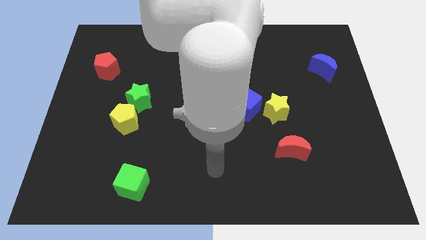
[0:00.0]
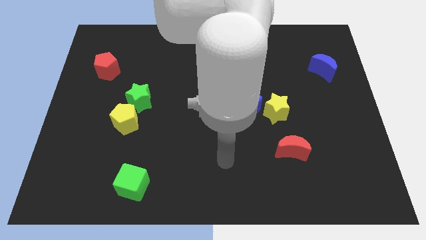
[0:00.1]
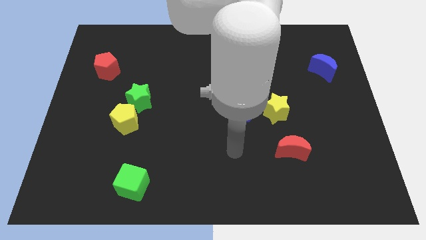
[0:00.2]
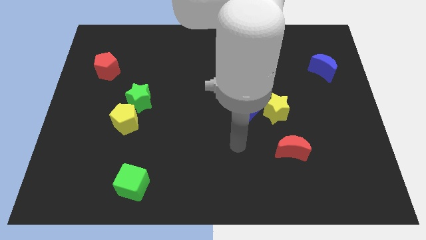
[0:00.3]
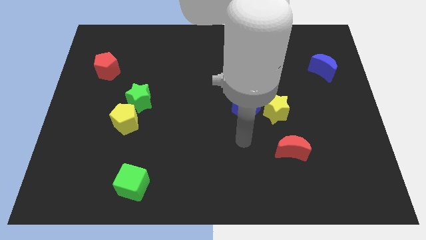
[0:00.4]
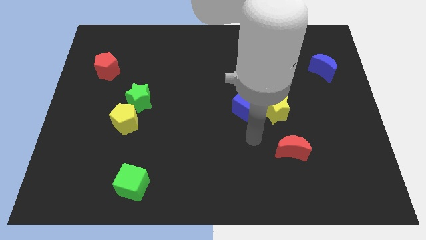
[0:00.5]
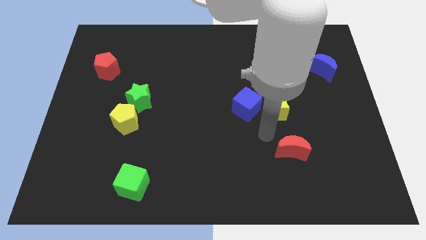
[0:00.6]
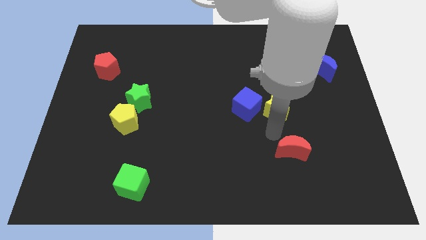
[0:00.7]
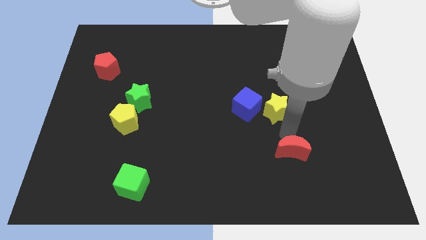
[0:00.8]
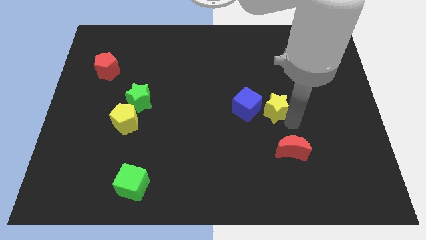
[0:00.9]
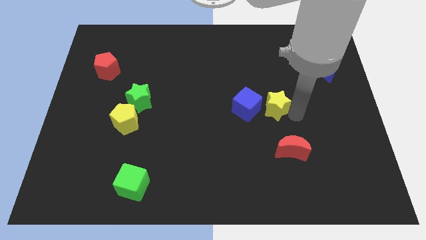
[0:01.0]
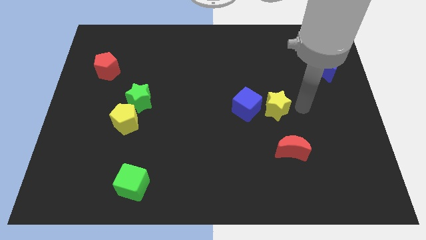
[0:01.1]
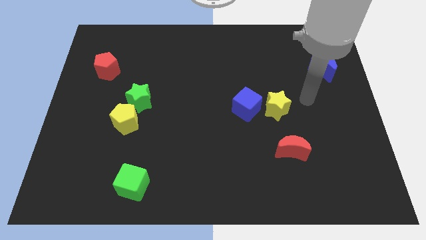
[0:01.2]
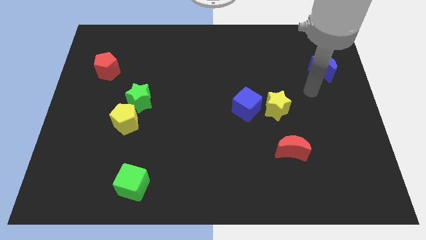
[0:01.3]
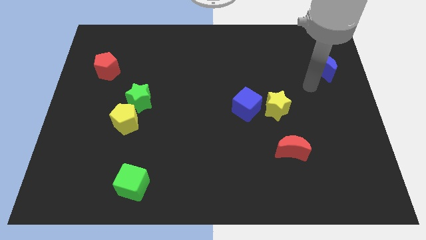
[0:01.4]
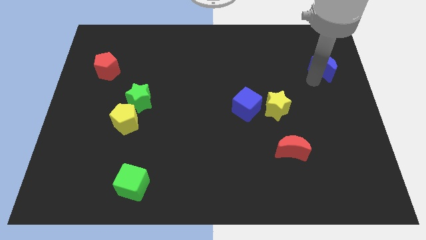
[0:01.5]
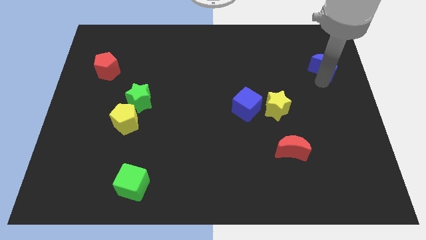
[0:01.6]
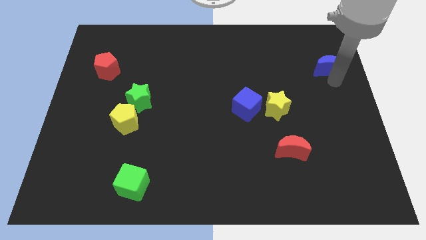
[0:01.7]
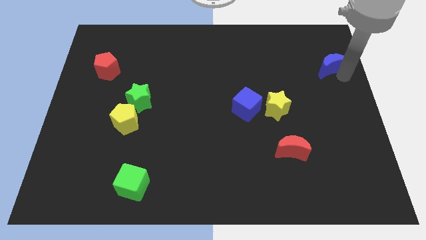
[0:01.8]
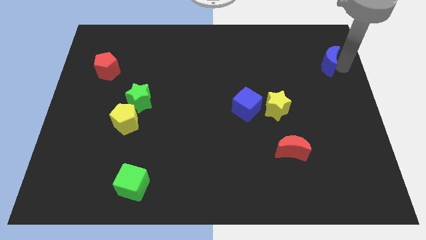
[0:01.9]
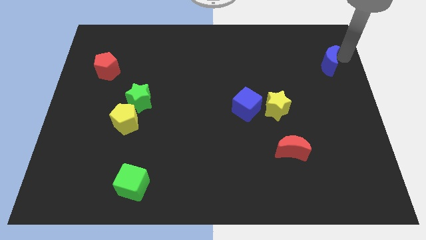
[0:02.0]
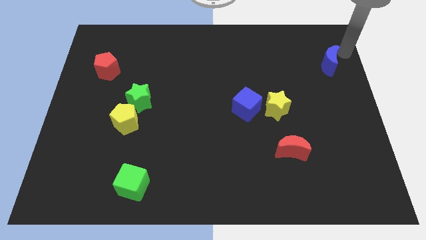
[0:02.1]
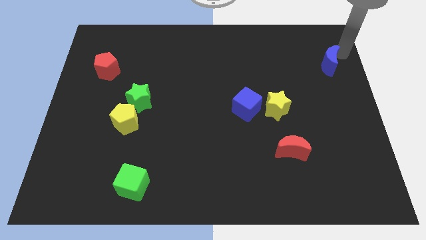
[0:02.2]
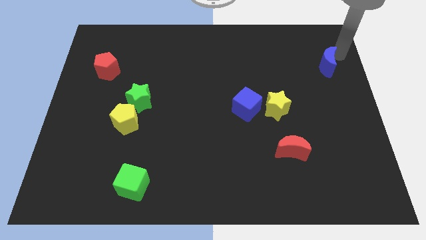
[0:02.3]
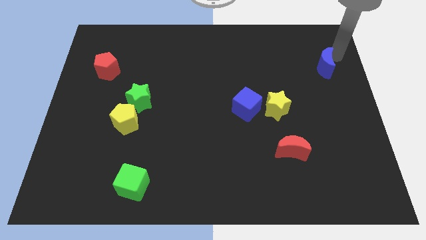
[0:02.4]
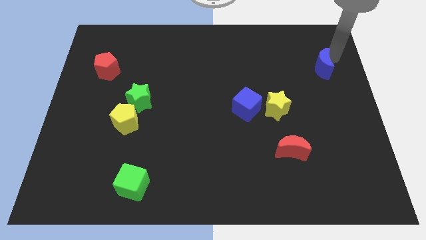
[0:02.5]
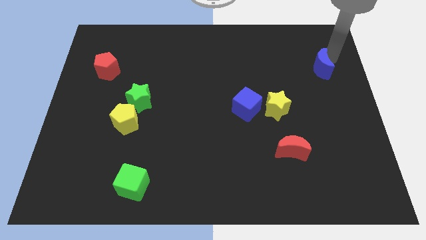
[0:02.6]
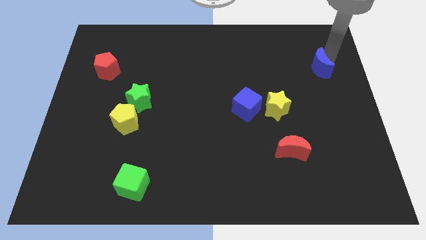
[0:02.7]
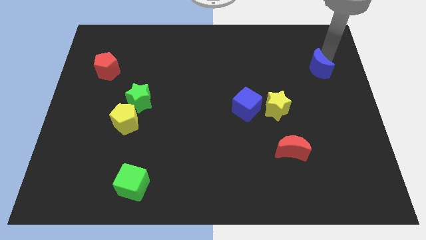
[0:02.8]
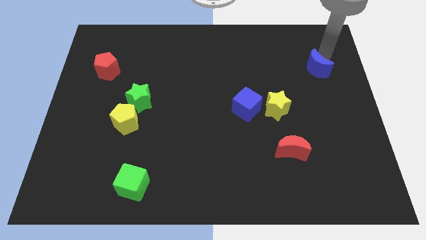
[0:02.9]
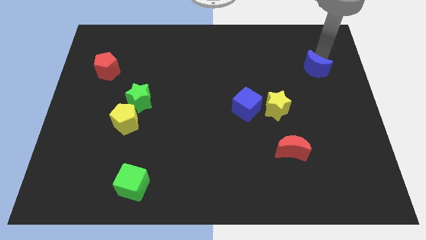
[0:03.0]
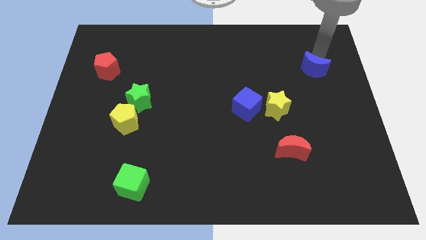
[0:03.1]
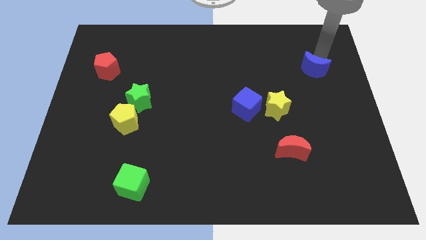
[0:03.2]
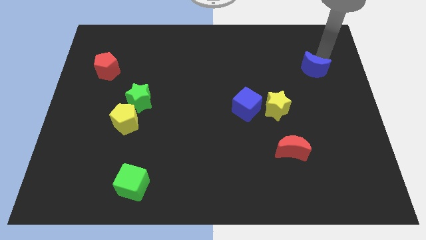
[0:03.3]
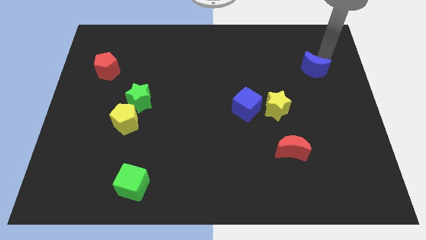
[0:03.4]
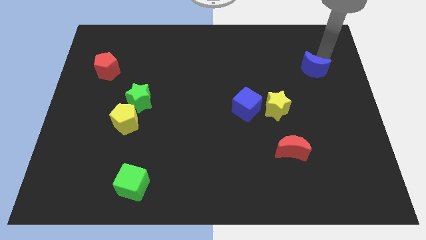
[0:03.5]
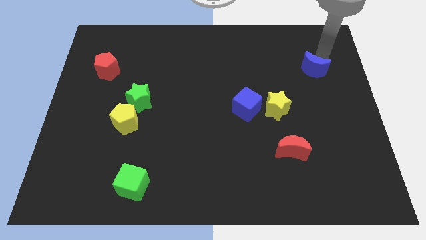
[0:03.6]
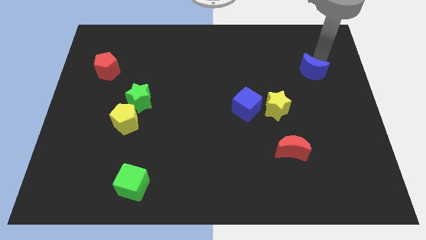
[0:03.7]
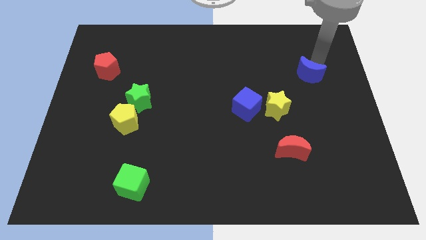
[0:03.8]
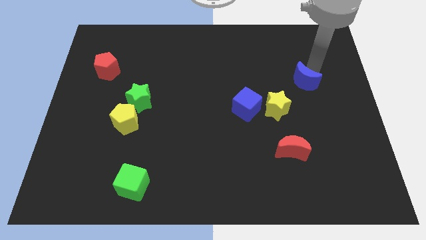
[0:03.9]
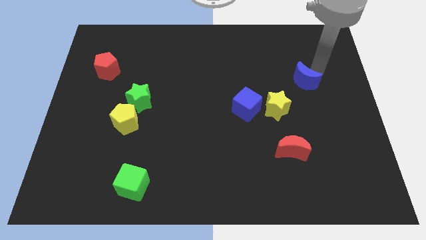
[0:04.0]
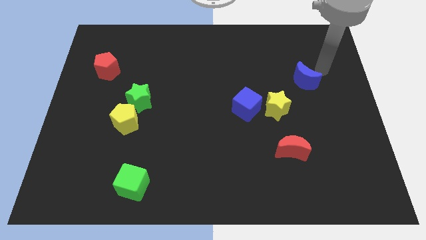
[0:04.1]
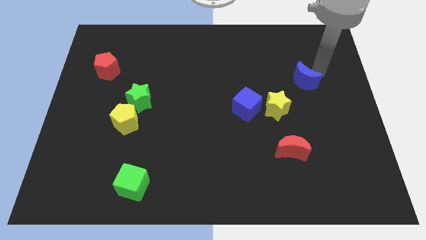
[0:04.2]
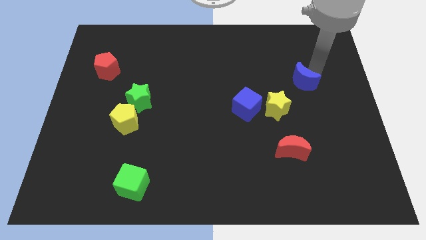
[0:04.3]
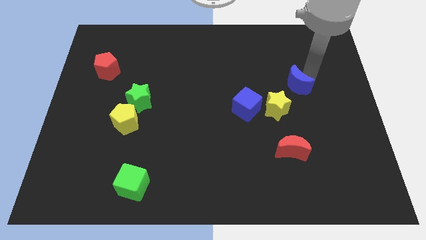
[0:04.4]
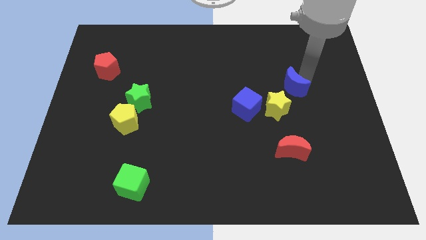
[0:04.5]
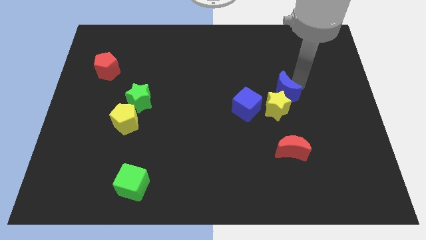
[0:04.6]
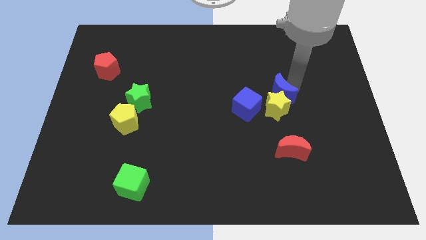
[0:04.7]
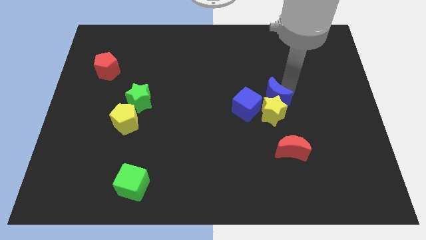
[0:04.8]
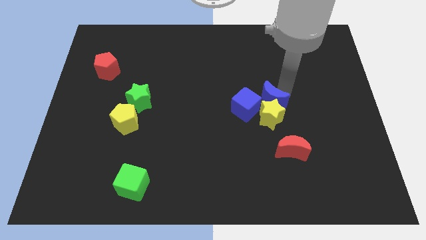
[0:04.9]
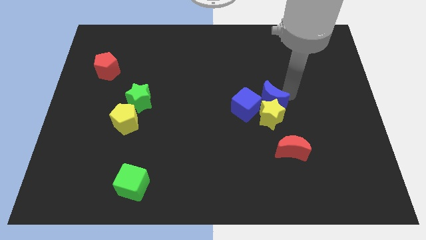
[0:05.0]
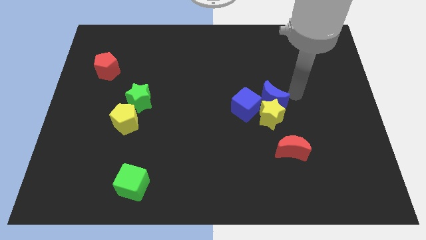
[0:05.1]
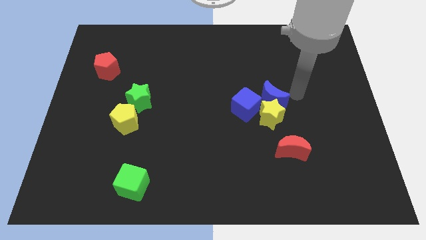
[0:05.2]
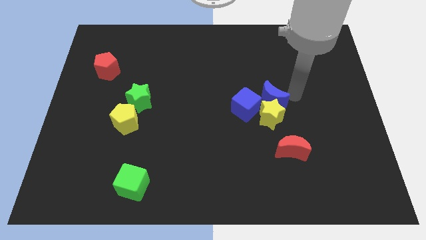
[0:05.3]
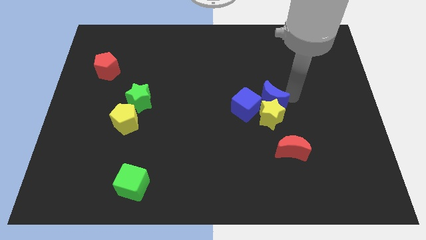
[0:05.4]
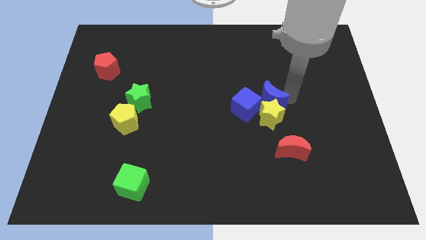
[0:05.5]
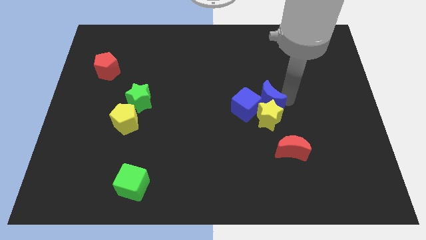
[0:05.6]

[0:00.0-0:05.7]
put the blue moon to the blue cube

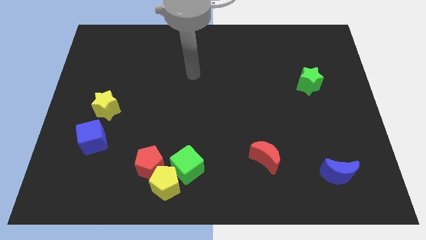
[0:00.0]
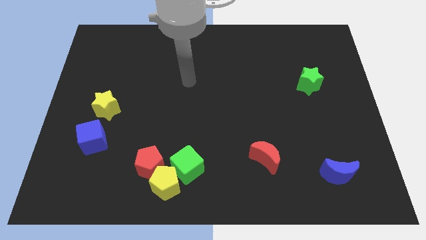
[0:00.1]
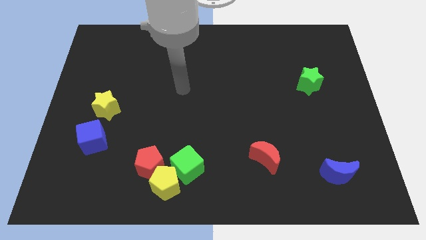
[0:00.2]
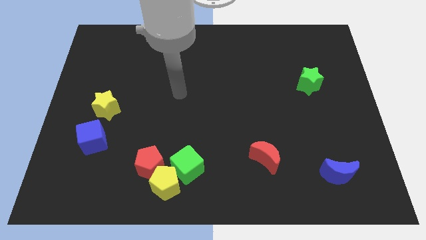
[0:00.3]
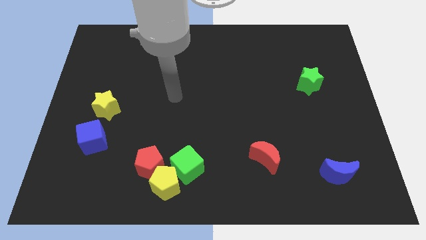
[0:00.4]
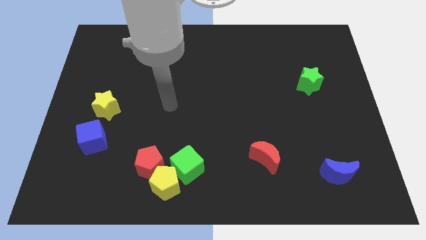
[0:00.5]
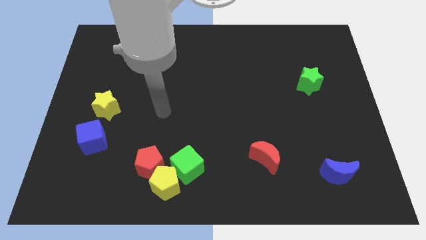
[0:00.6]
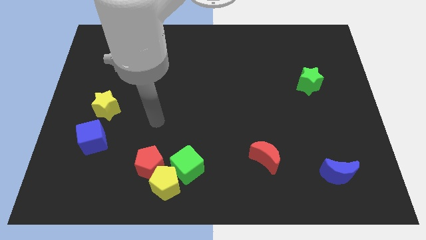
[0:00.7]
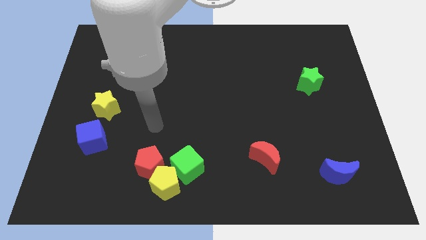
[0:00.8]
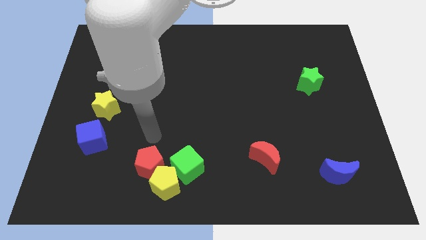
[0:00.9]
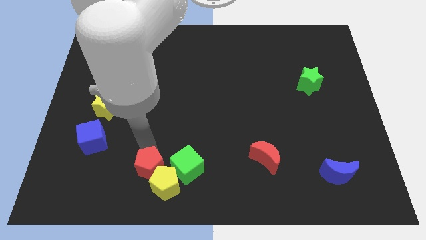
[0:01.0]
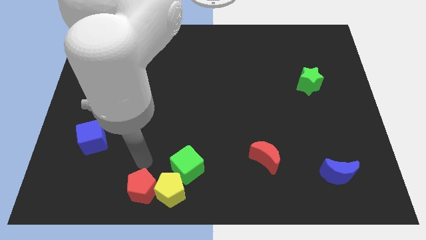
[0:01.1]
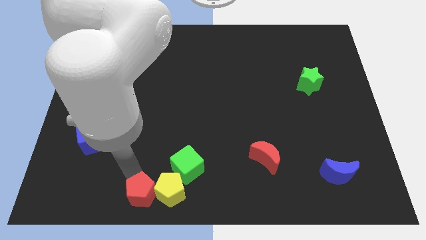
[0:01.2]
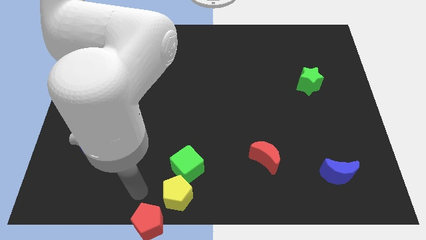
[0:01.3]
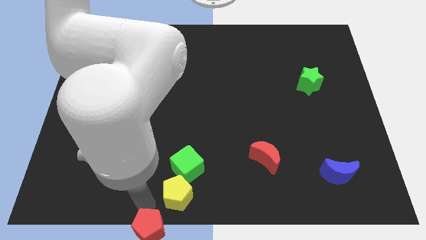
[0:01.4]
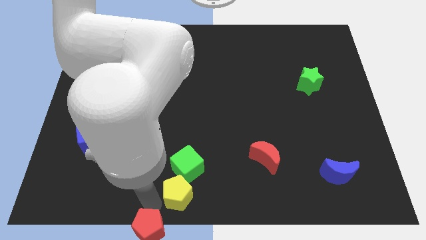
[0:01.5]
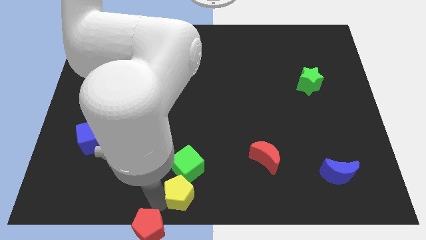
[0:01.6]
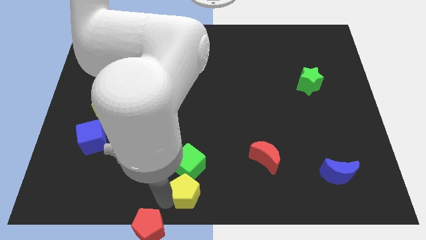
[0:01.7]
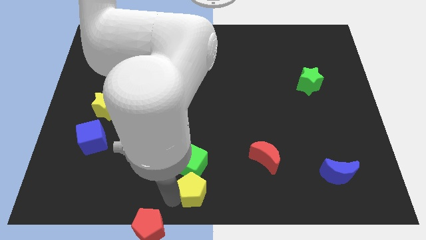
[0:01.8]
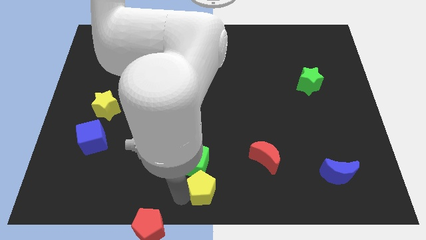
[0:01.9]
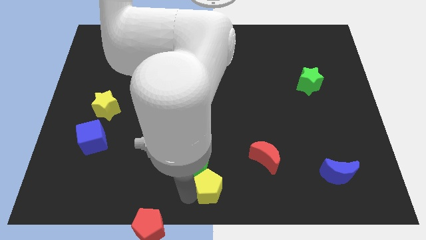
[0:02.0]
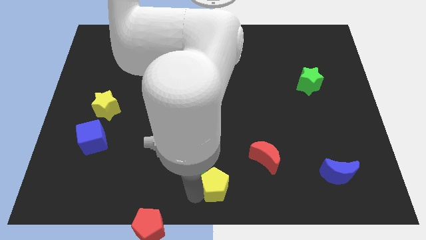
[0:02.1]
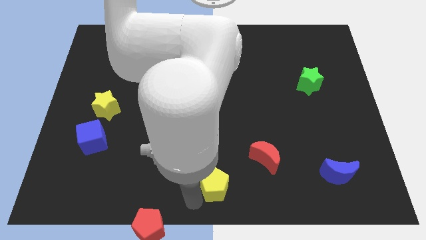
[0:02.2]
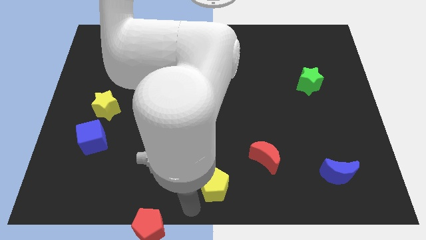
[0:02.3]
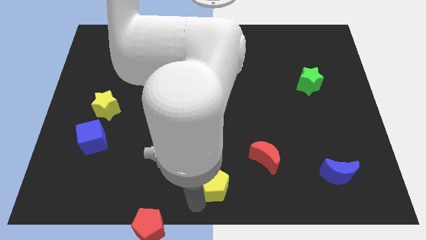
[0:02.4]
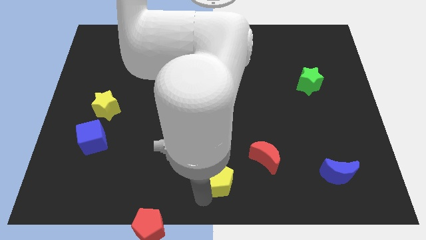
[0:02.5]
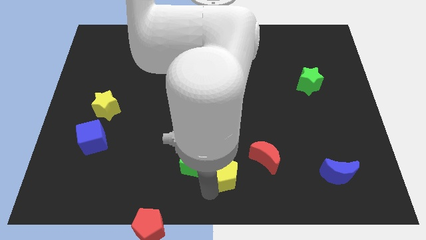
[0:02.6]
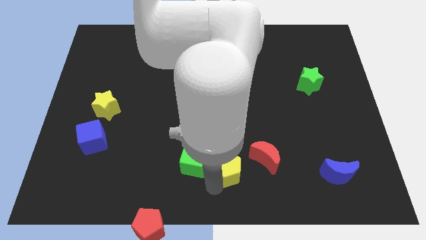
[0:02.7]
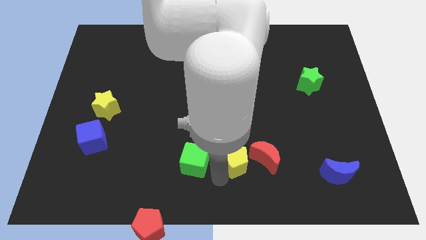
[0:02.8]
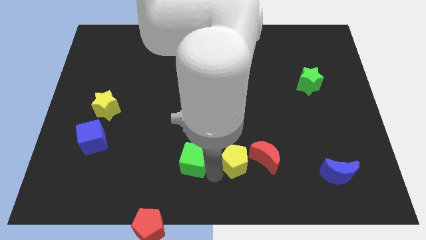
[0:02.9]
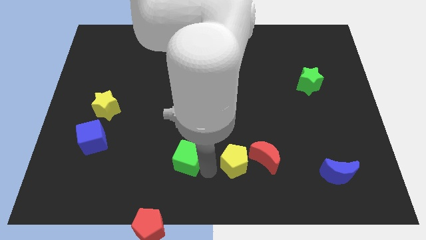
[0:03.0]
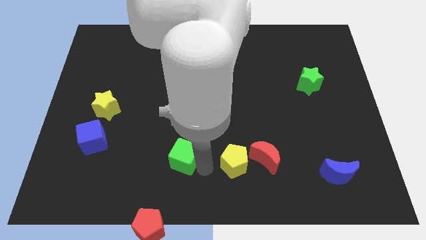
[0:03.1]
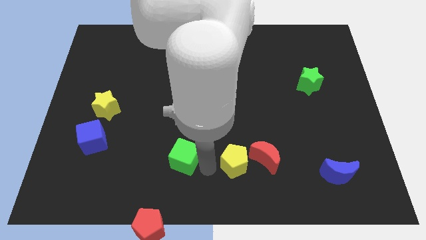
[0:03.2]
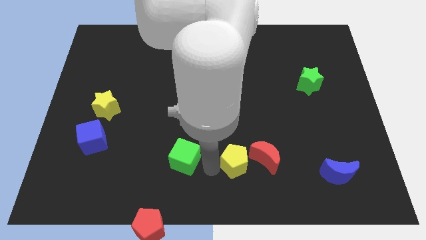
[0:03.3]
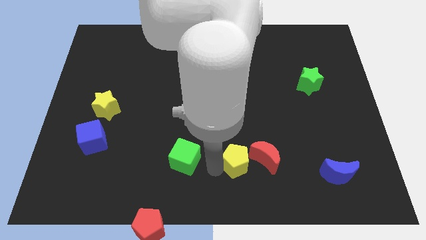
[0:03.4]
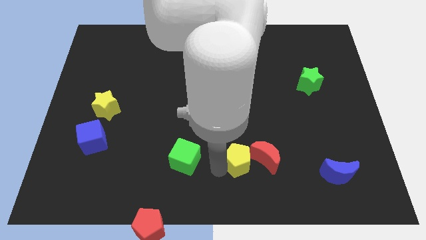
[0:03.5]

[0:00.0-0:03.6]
push the yellow pentagon to the red moon
